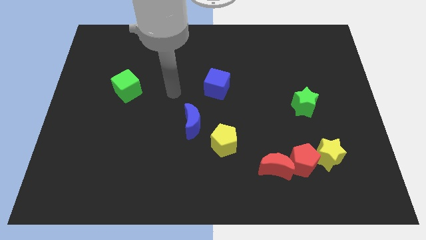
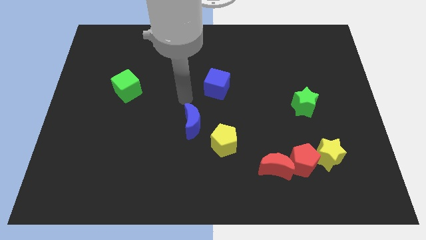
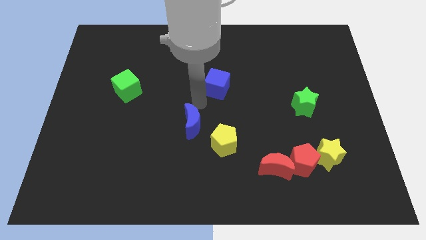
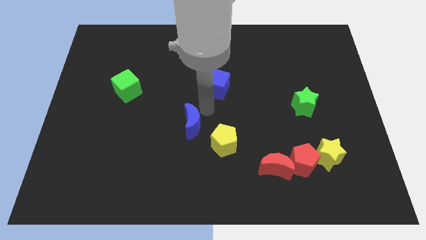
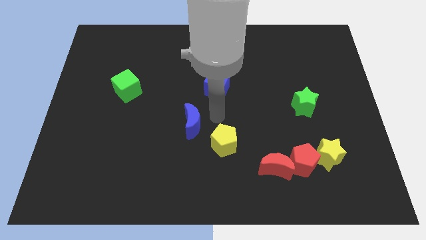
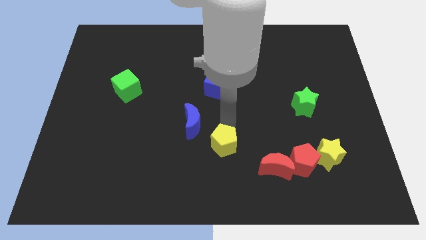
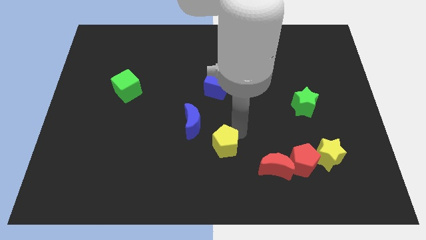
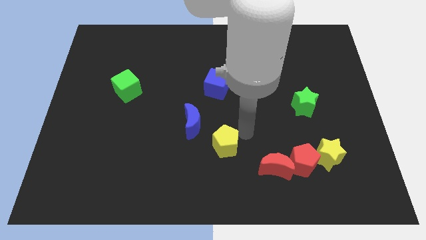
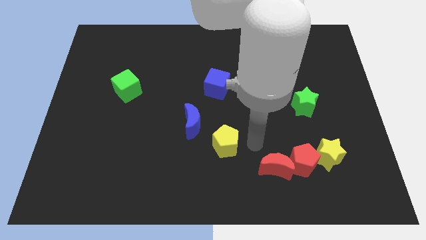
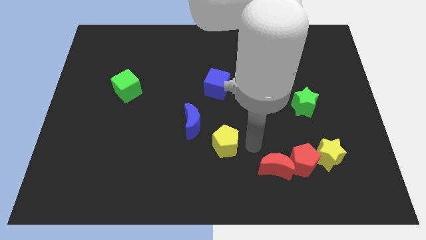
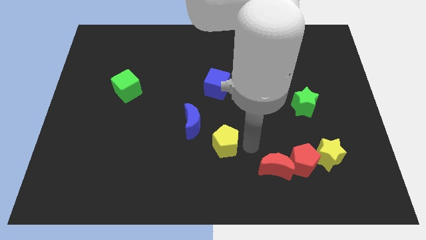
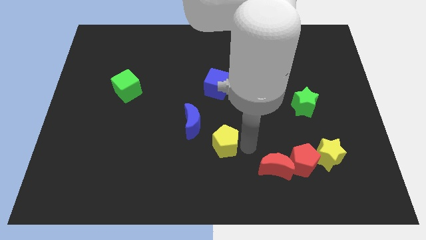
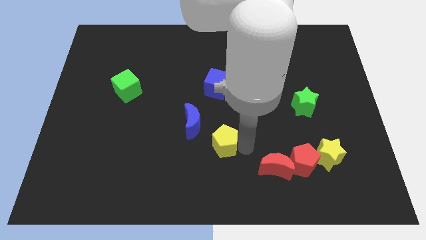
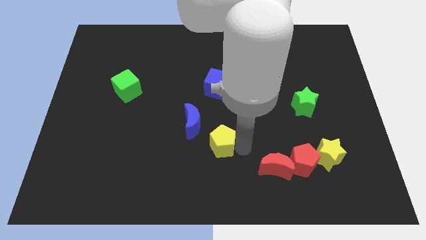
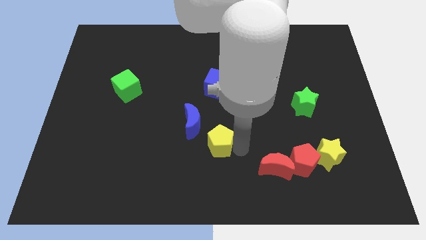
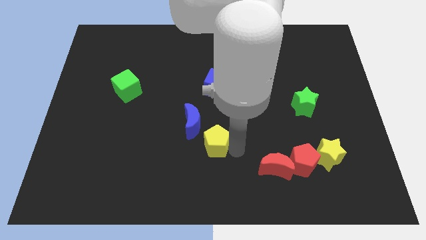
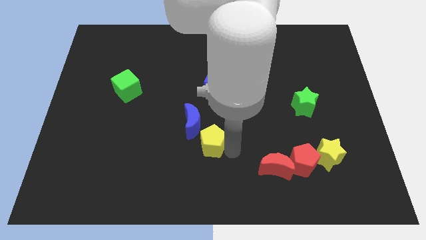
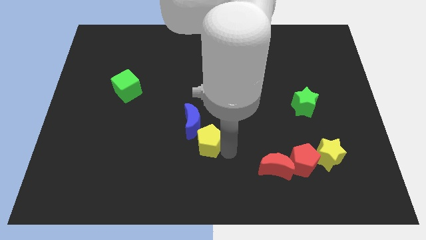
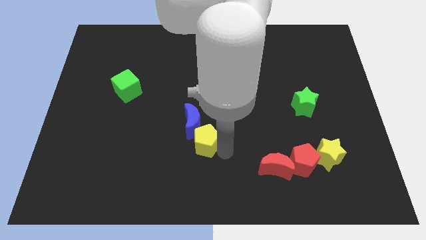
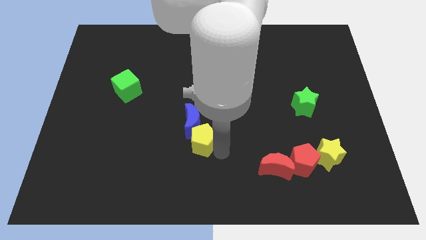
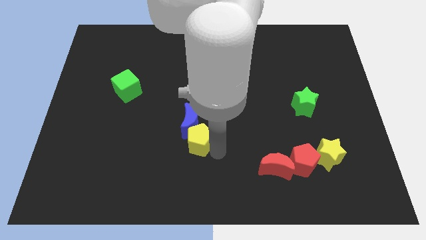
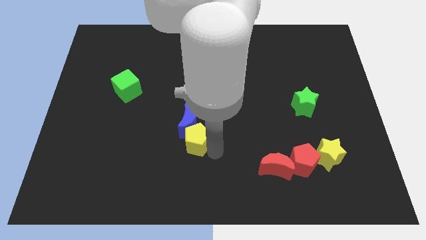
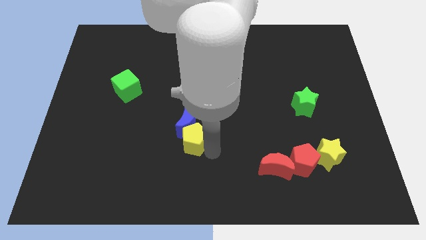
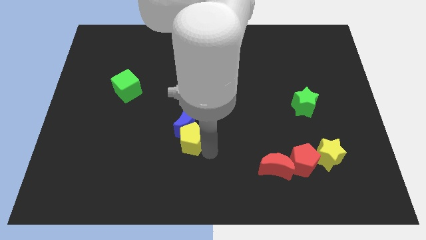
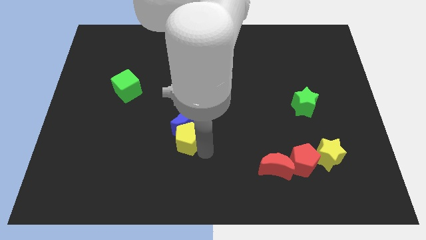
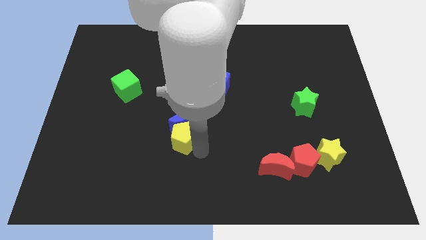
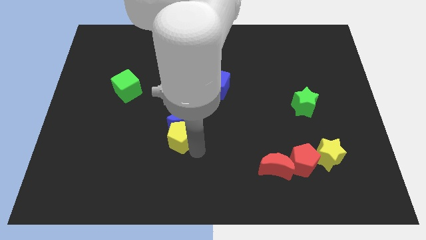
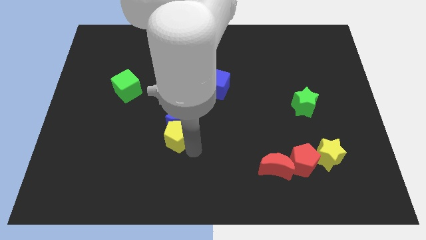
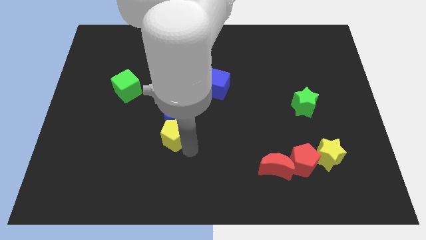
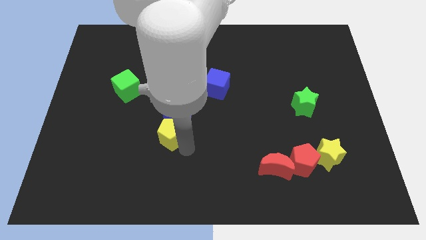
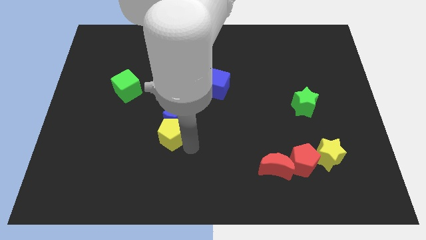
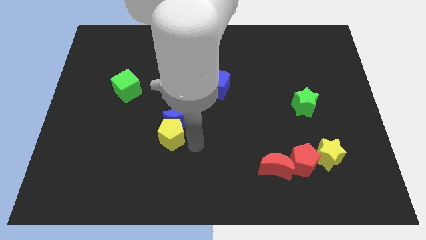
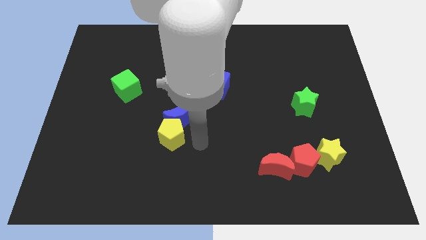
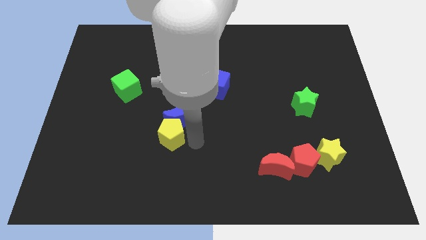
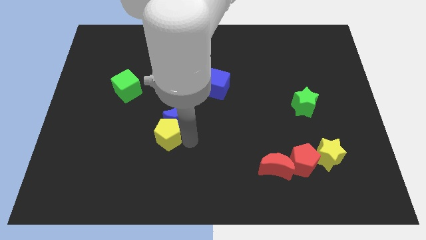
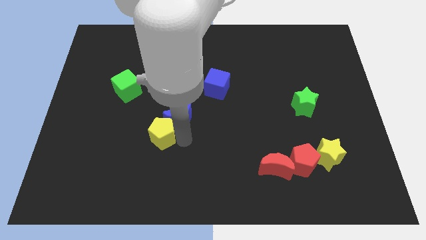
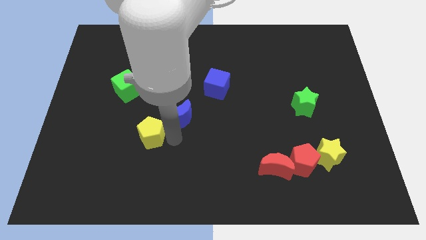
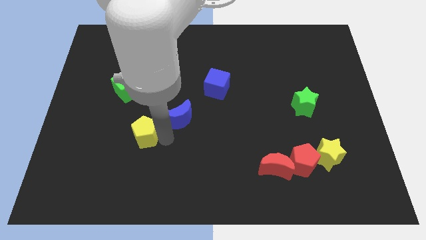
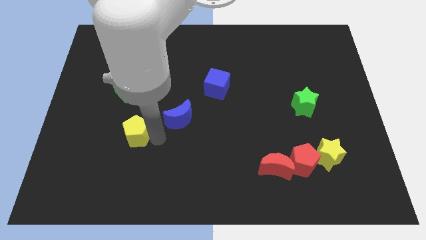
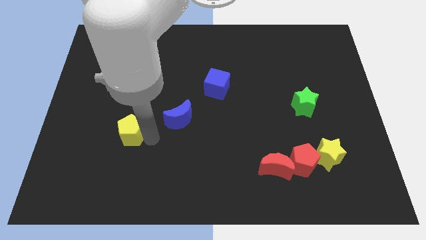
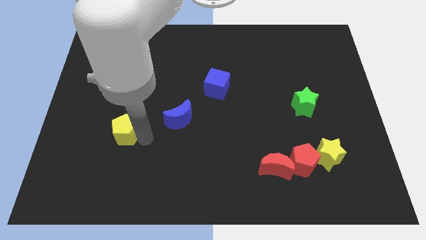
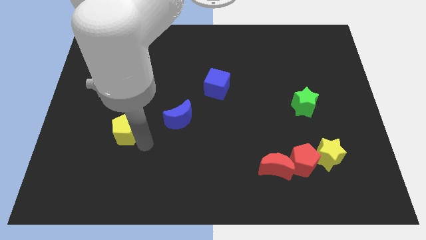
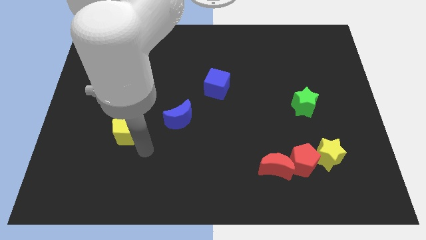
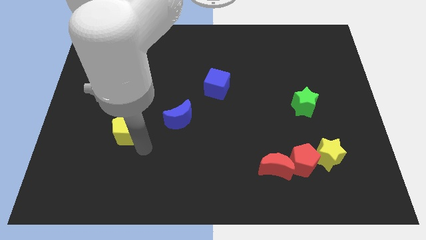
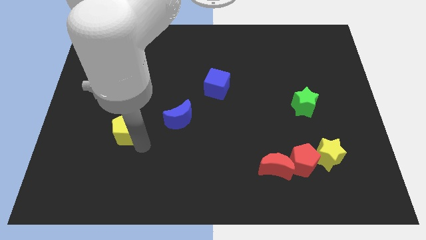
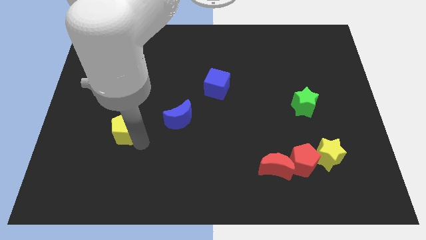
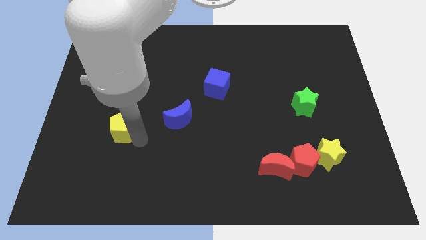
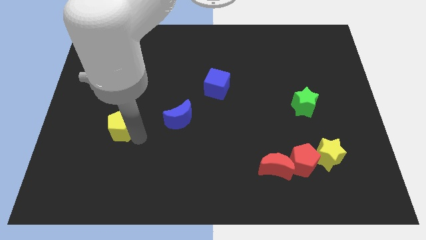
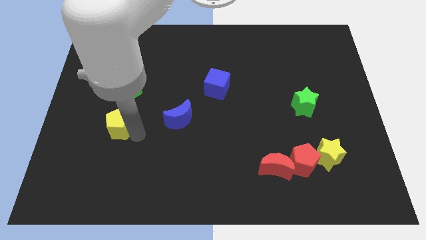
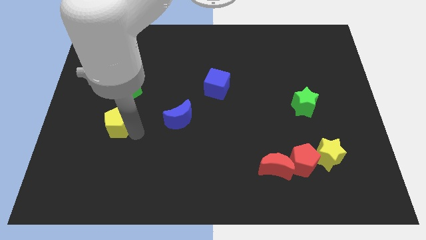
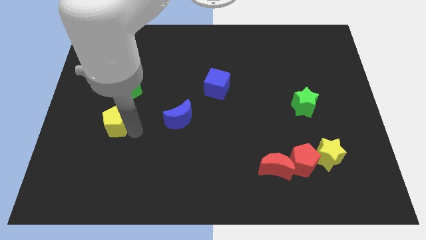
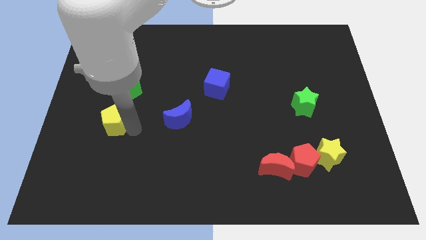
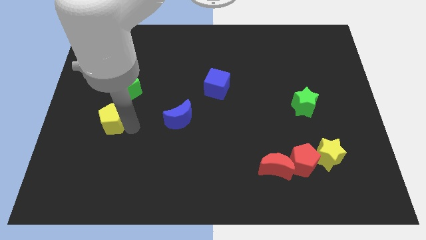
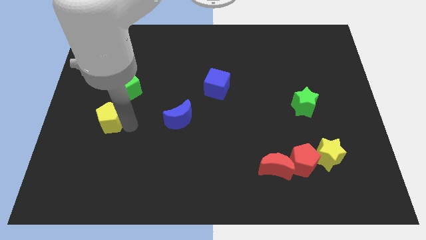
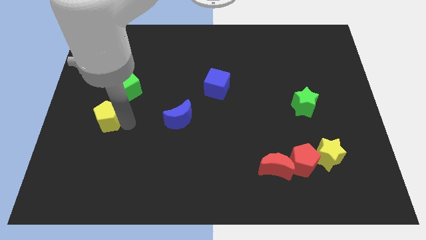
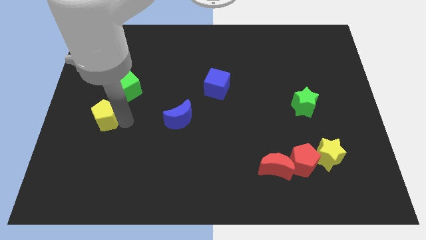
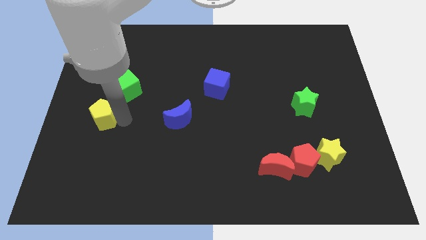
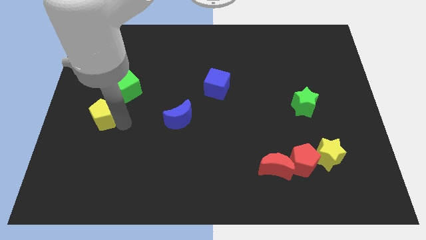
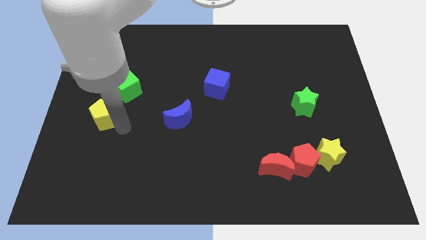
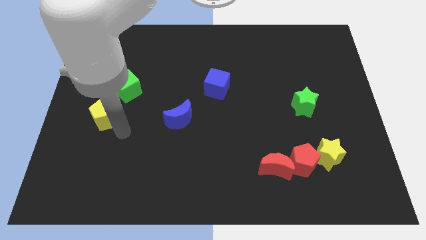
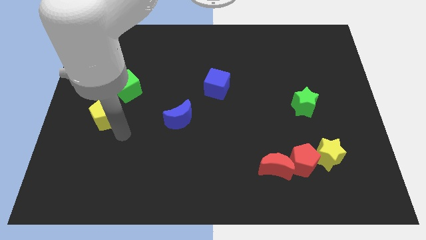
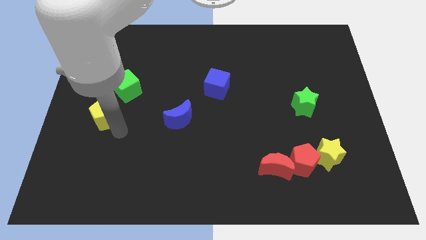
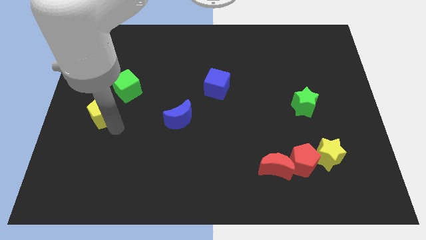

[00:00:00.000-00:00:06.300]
slide the yellow pentagon to the left side of the board

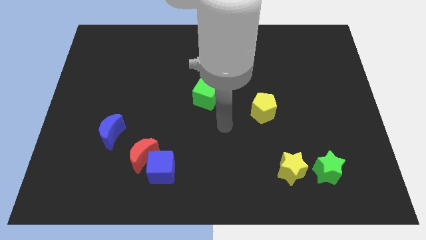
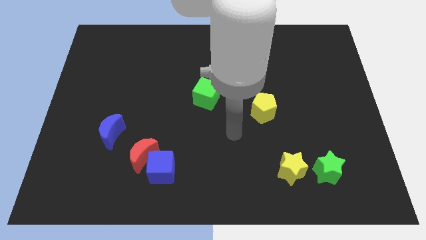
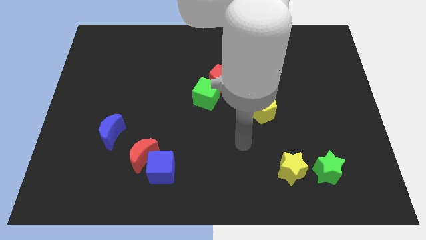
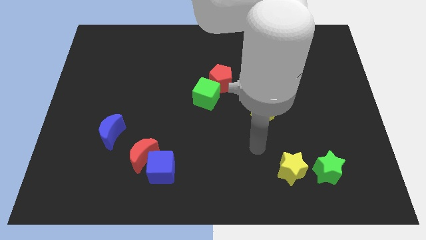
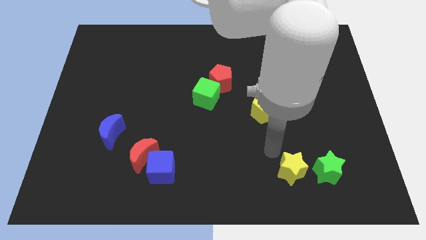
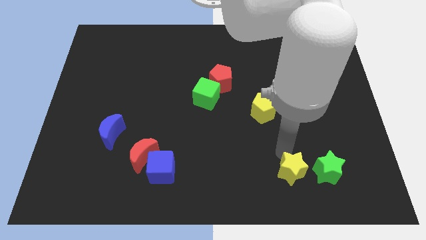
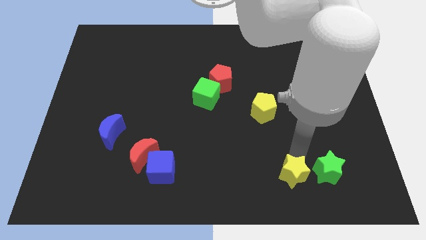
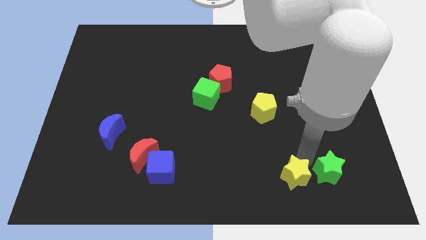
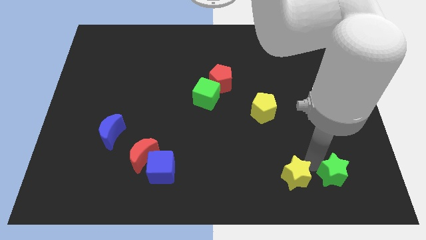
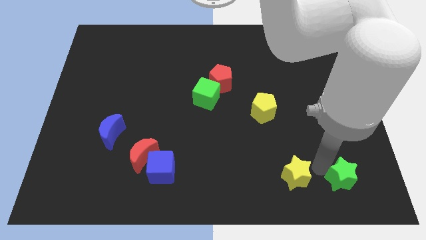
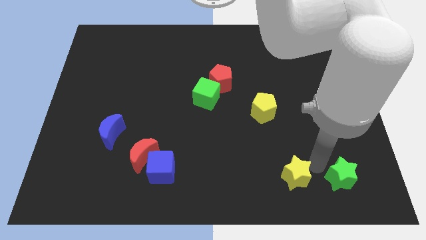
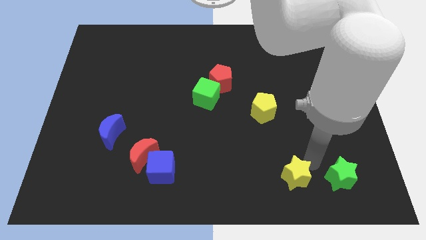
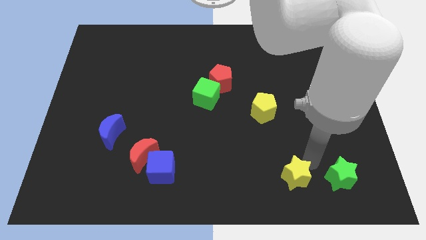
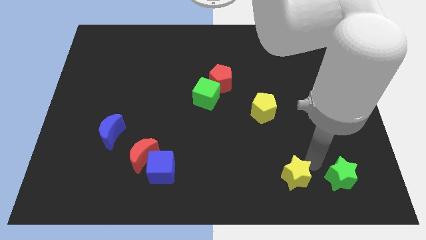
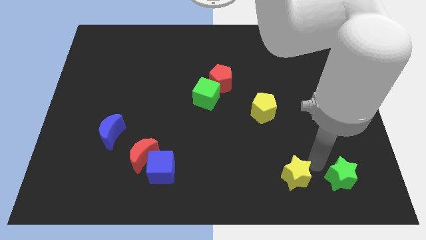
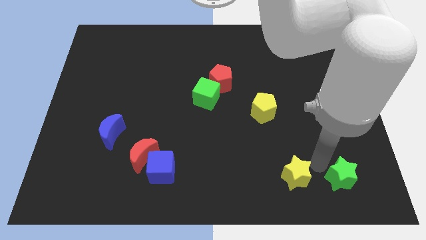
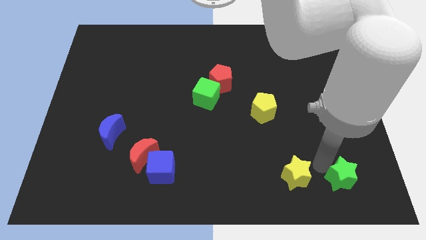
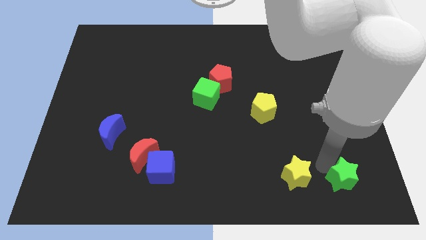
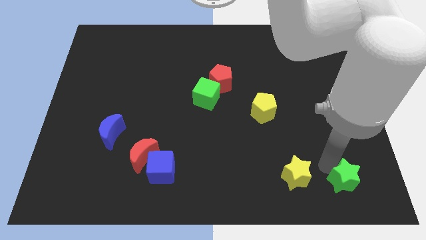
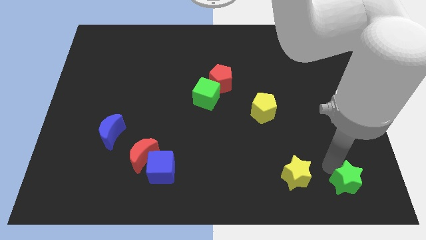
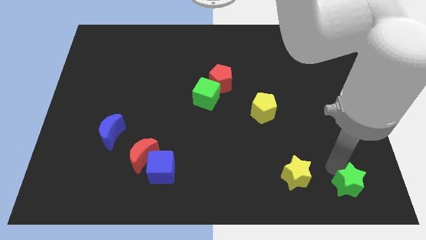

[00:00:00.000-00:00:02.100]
move the green star to the bottom right of the board
